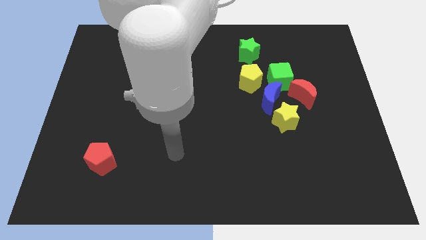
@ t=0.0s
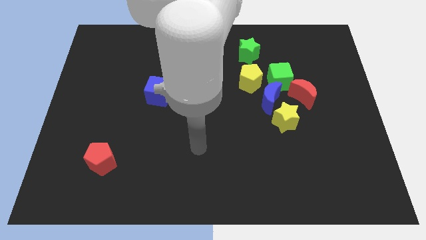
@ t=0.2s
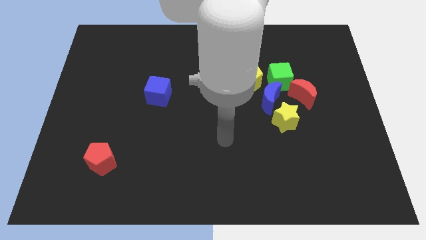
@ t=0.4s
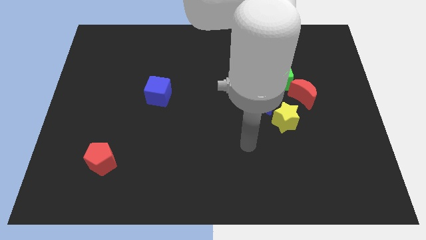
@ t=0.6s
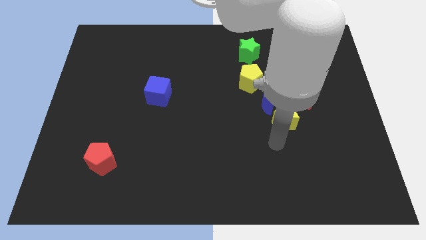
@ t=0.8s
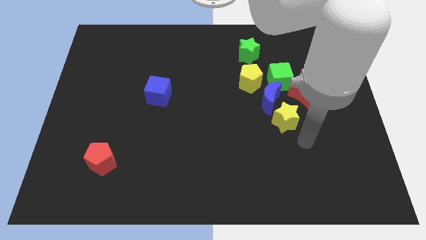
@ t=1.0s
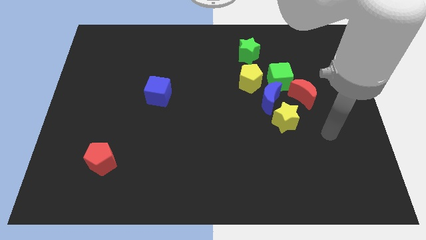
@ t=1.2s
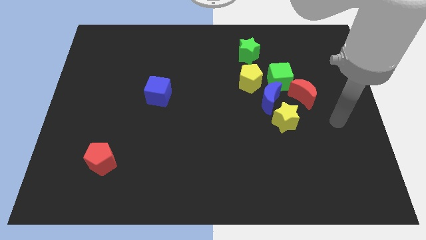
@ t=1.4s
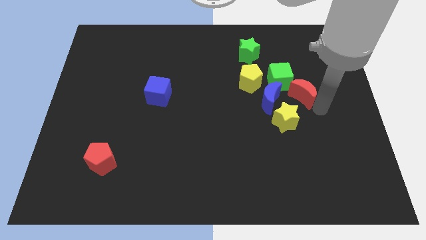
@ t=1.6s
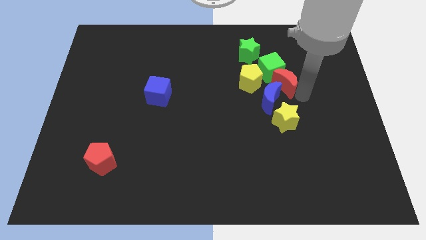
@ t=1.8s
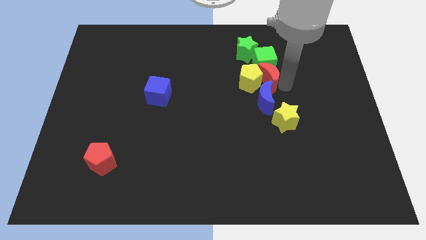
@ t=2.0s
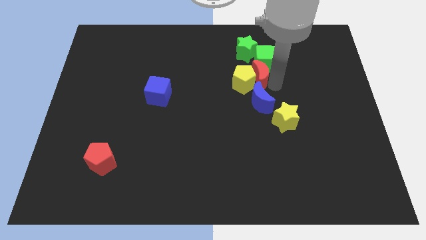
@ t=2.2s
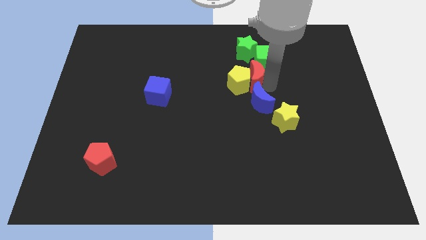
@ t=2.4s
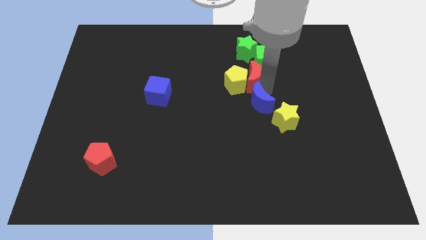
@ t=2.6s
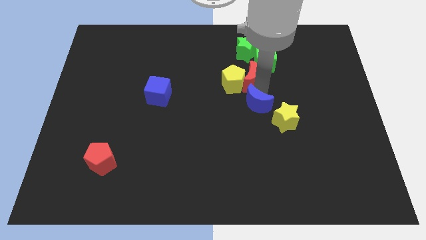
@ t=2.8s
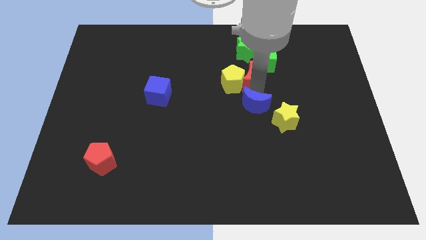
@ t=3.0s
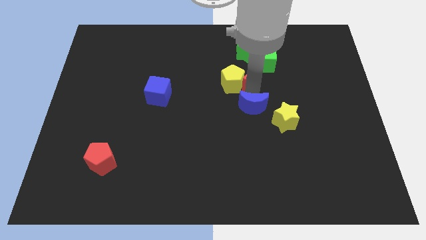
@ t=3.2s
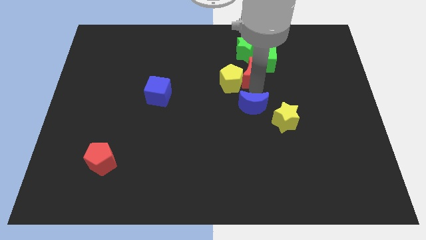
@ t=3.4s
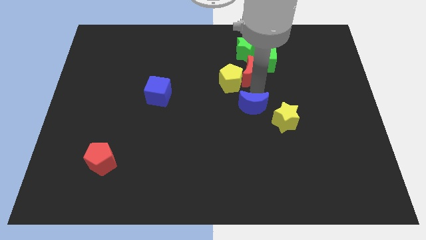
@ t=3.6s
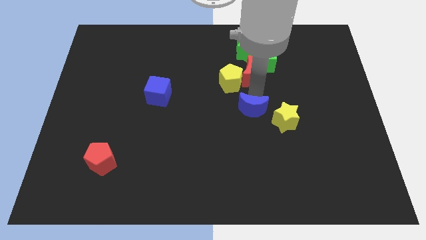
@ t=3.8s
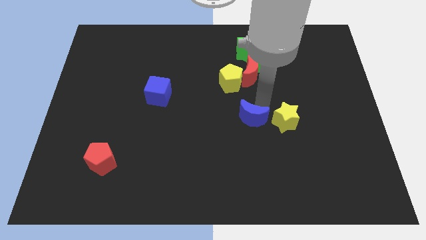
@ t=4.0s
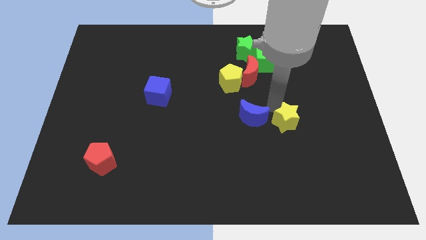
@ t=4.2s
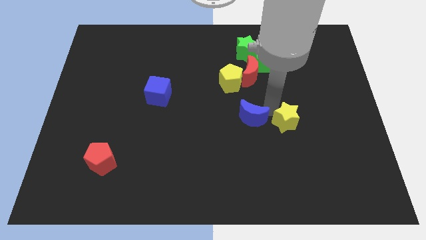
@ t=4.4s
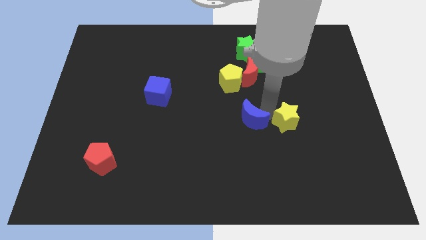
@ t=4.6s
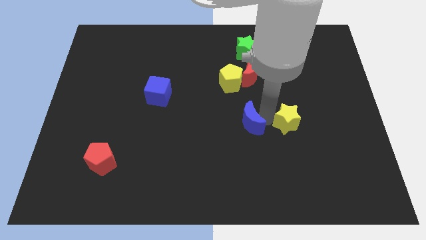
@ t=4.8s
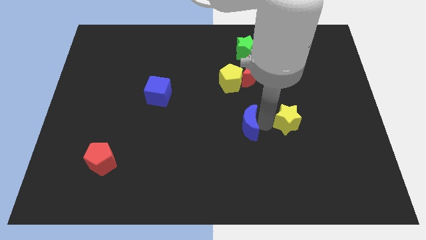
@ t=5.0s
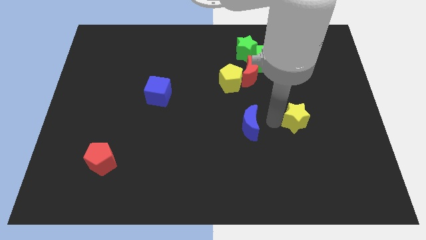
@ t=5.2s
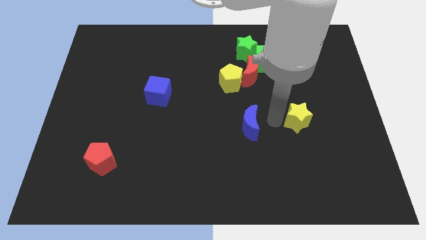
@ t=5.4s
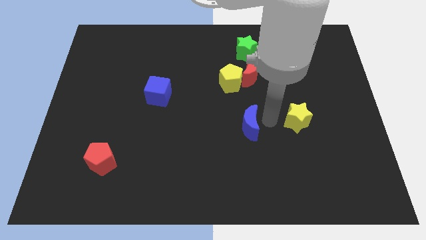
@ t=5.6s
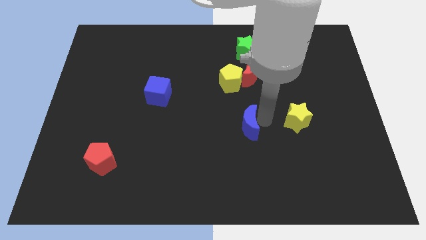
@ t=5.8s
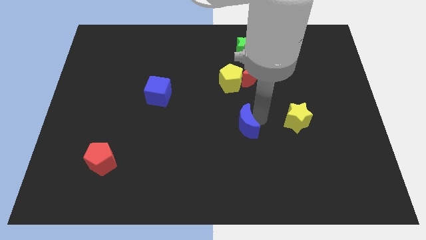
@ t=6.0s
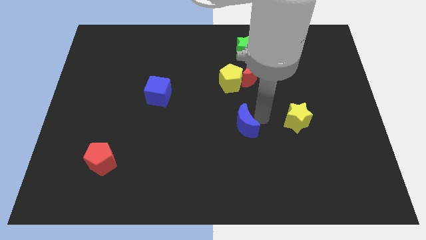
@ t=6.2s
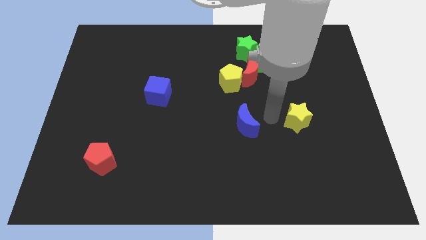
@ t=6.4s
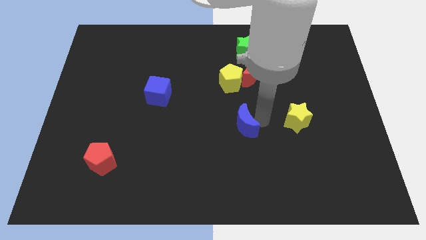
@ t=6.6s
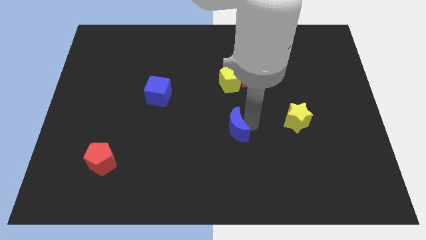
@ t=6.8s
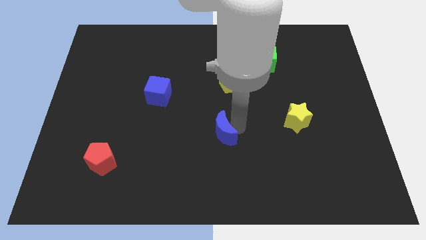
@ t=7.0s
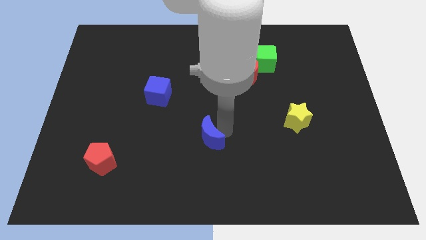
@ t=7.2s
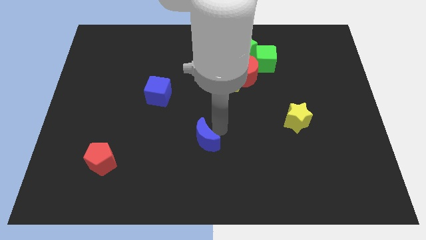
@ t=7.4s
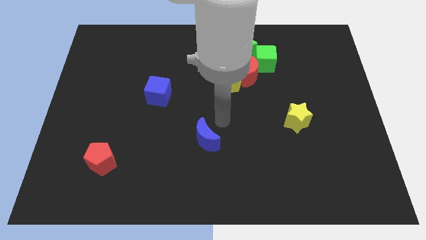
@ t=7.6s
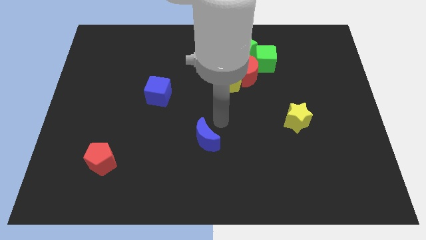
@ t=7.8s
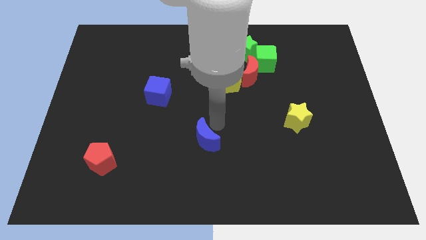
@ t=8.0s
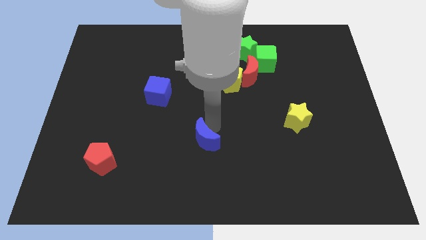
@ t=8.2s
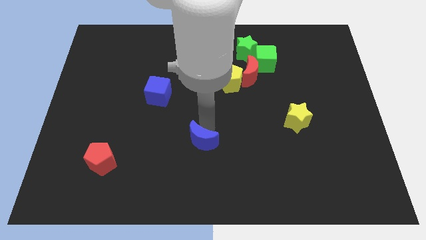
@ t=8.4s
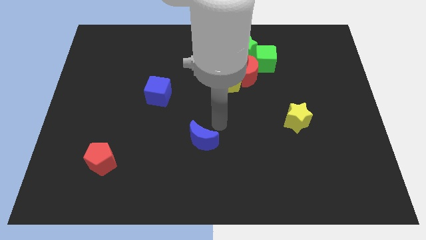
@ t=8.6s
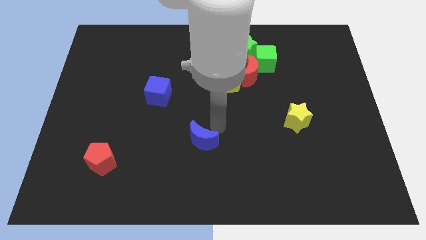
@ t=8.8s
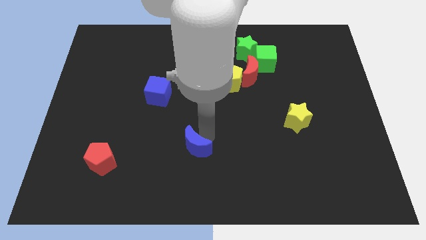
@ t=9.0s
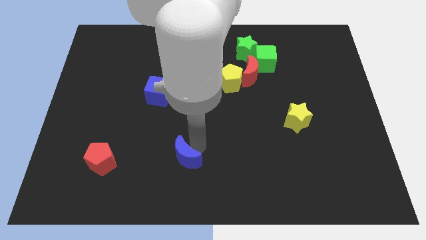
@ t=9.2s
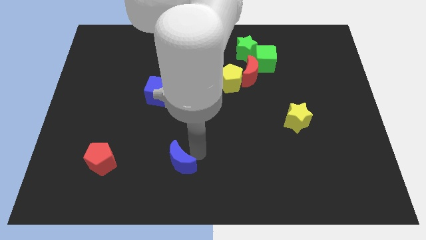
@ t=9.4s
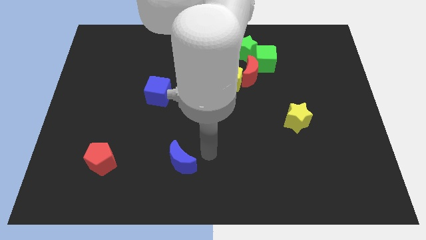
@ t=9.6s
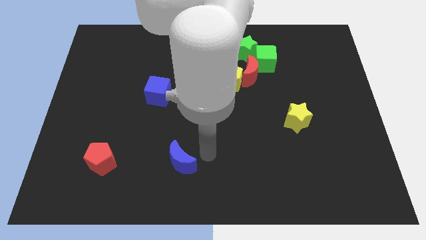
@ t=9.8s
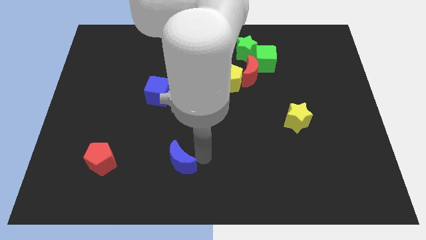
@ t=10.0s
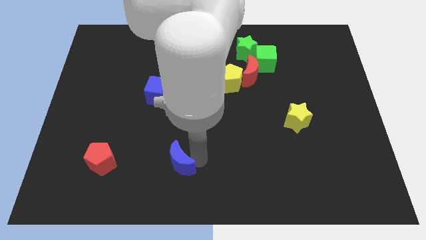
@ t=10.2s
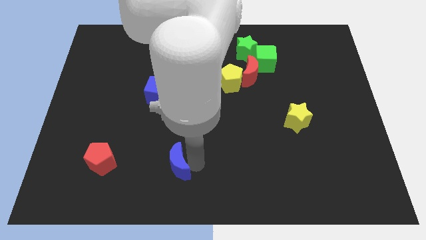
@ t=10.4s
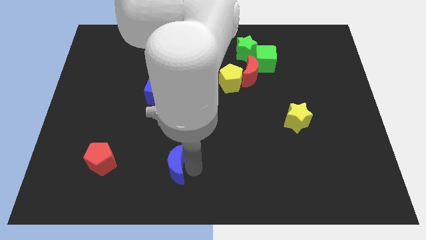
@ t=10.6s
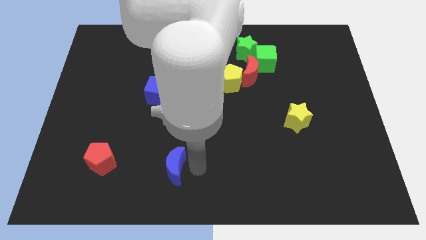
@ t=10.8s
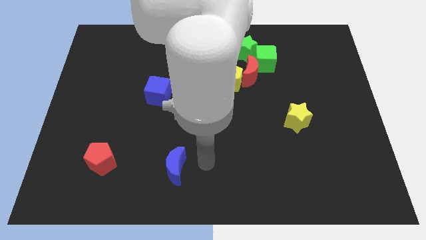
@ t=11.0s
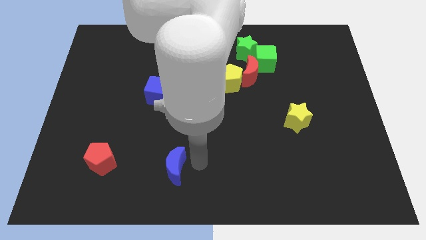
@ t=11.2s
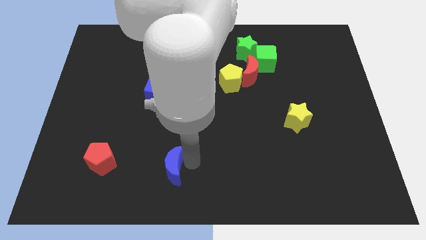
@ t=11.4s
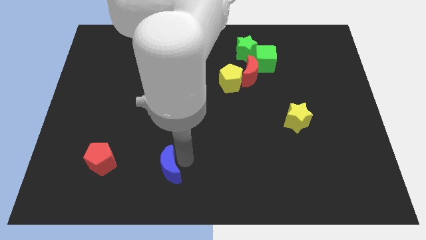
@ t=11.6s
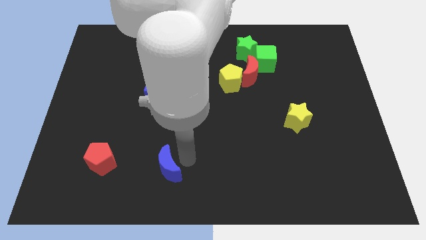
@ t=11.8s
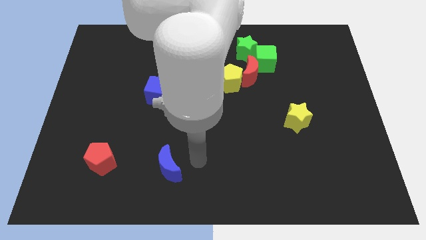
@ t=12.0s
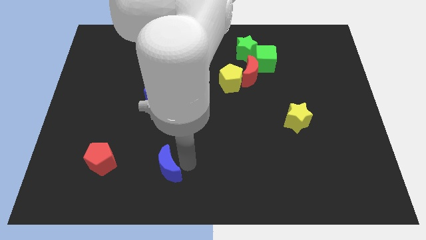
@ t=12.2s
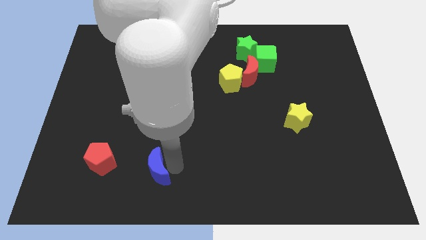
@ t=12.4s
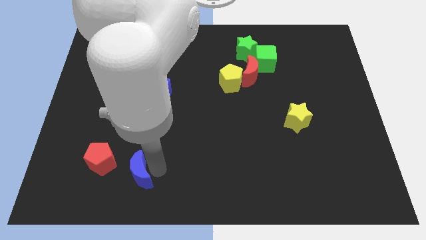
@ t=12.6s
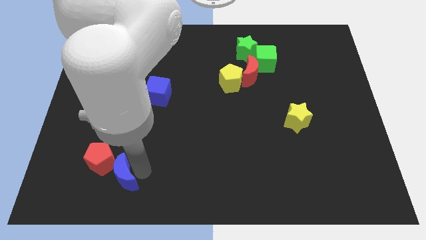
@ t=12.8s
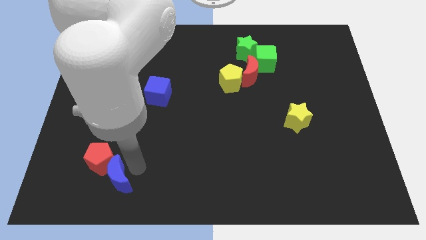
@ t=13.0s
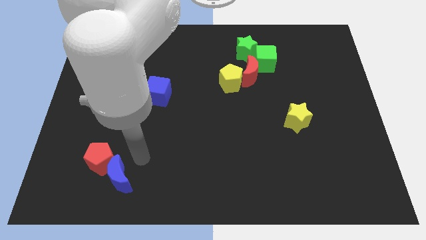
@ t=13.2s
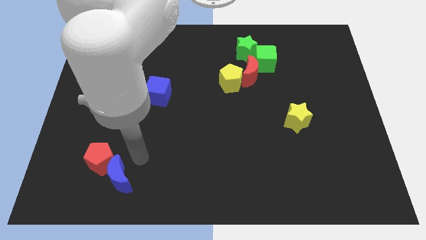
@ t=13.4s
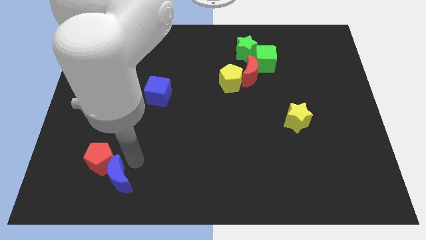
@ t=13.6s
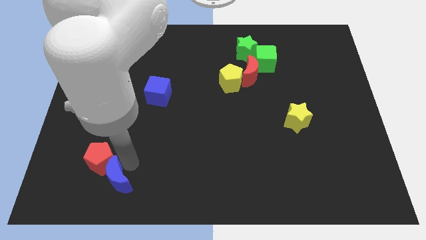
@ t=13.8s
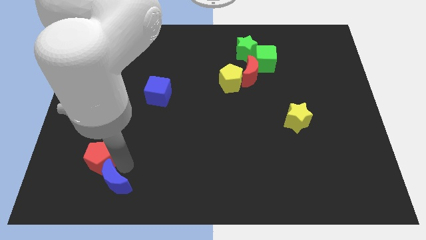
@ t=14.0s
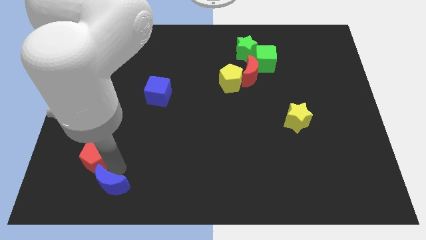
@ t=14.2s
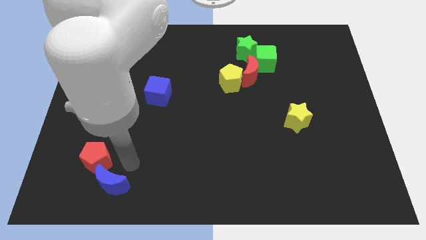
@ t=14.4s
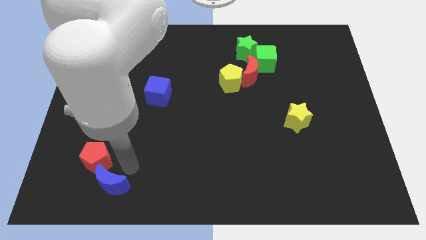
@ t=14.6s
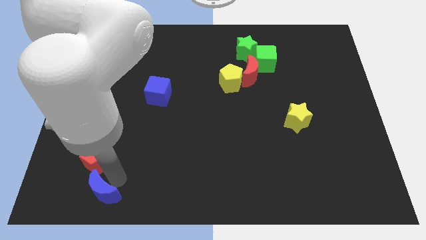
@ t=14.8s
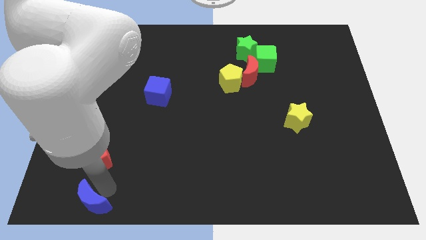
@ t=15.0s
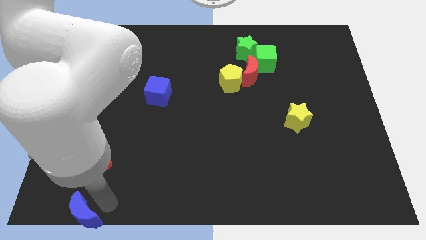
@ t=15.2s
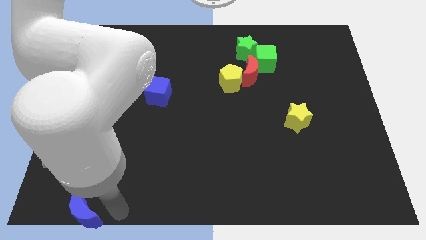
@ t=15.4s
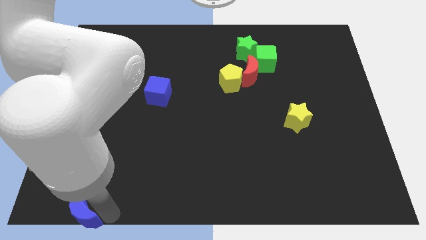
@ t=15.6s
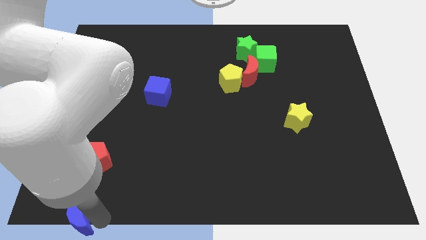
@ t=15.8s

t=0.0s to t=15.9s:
put the blue moon to the bottom left of the board
